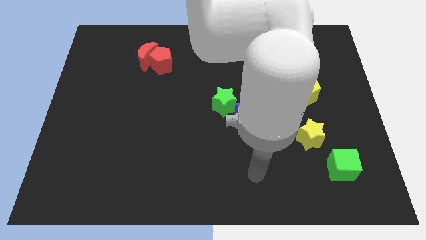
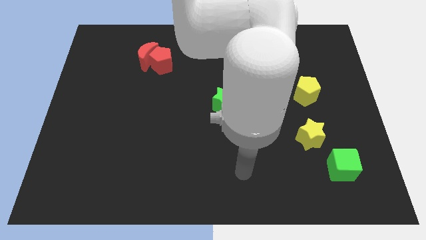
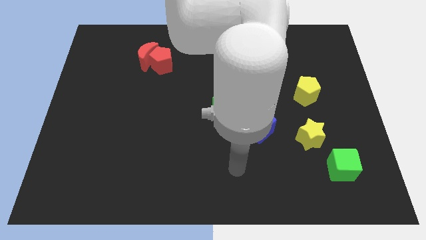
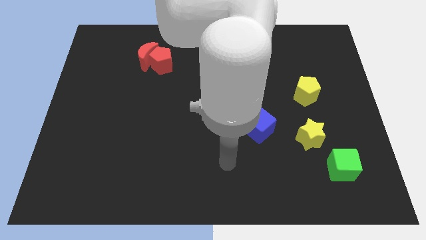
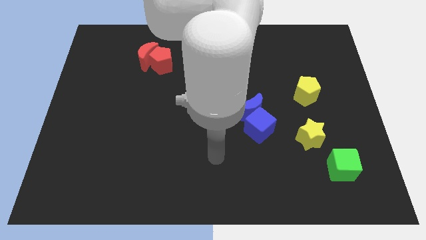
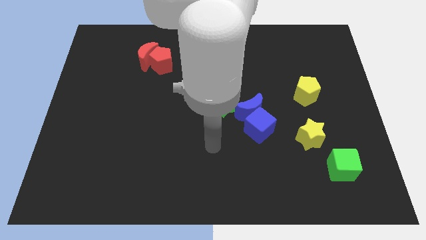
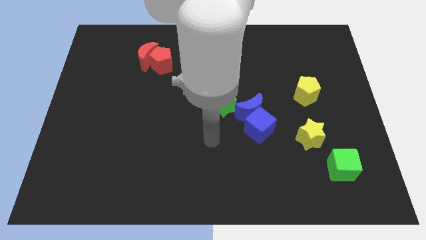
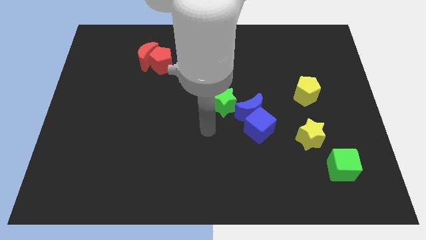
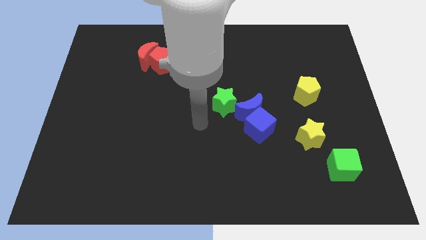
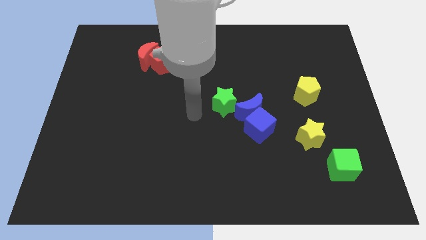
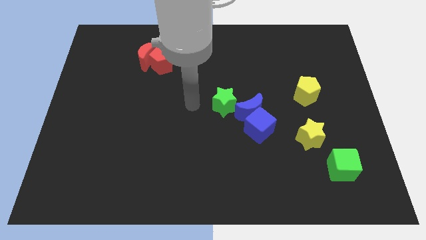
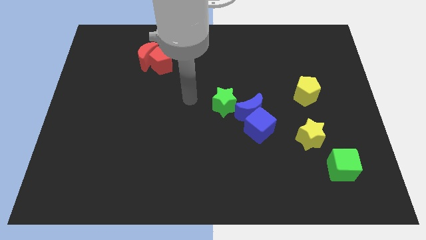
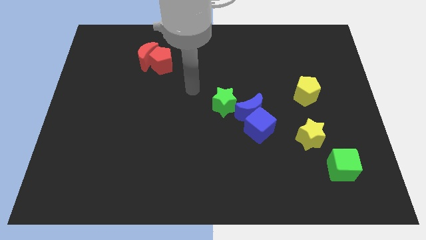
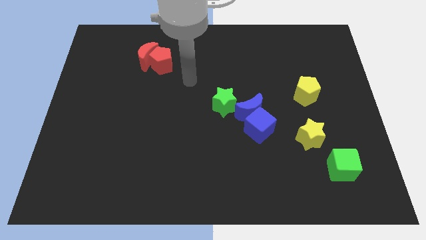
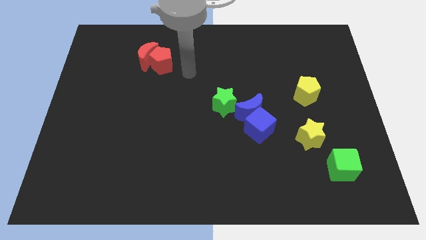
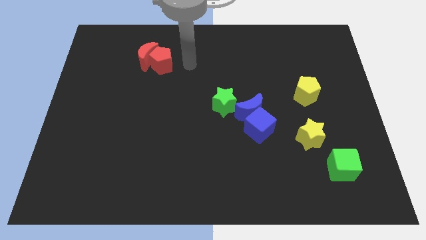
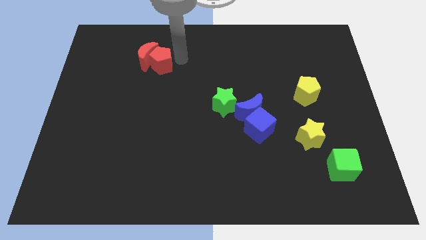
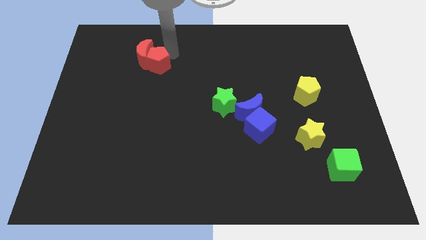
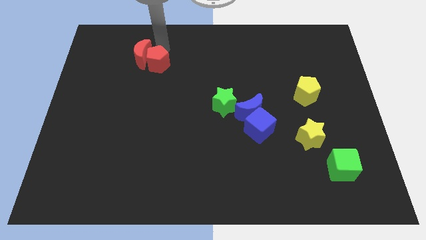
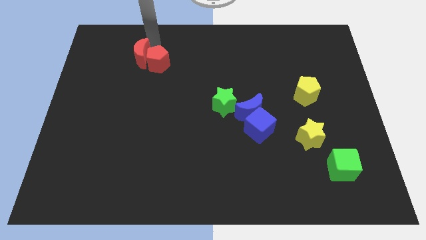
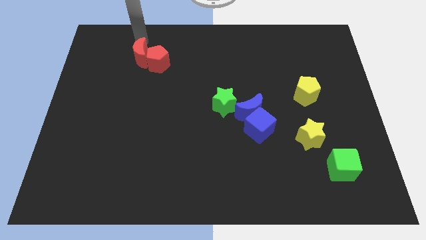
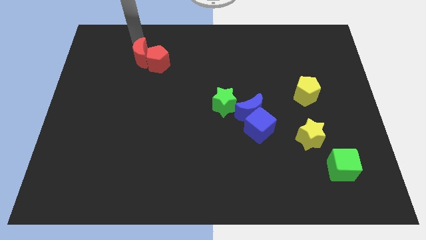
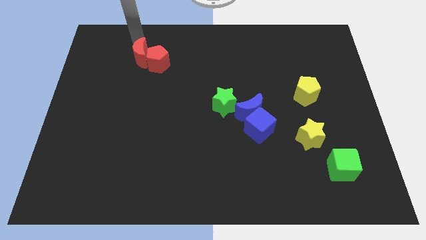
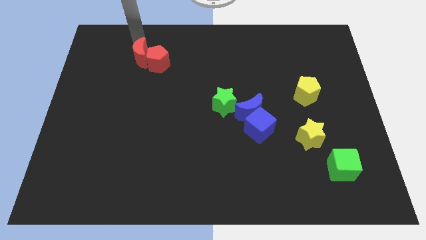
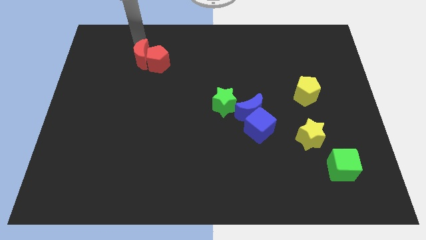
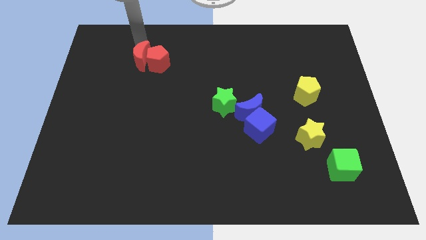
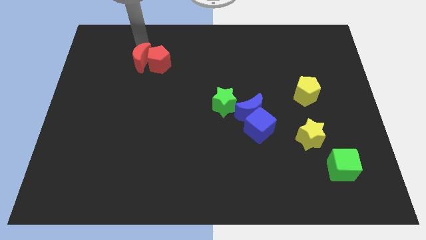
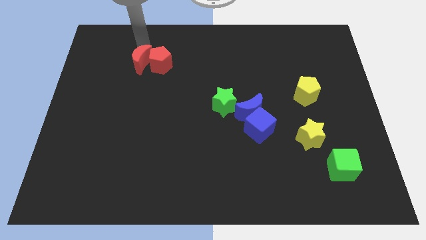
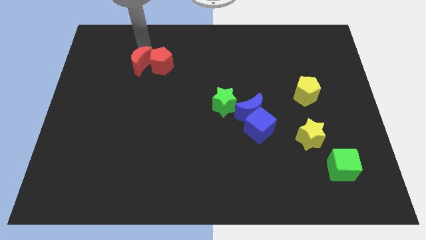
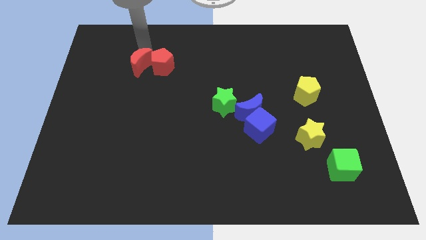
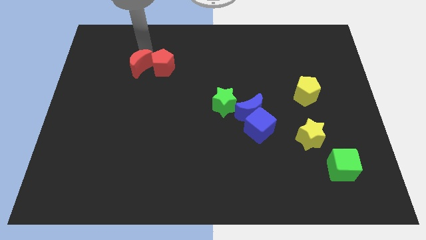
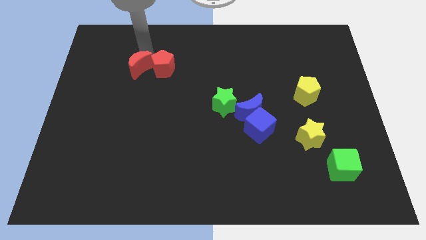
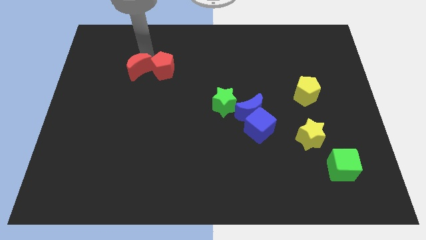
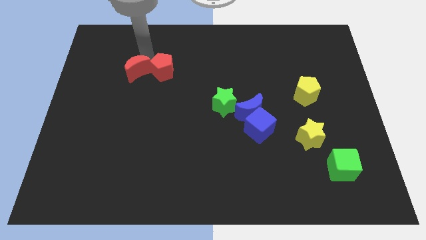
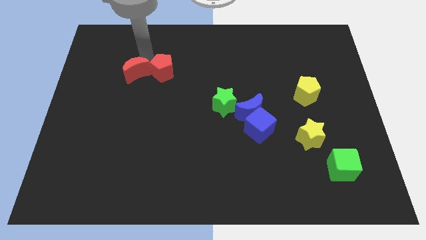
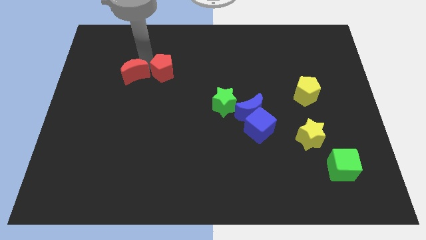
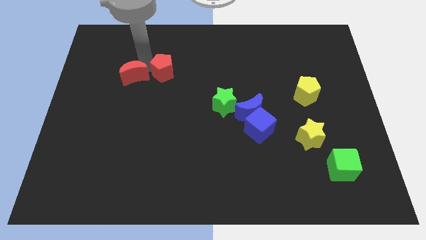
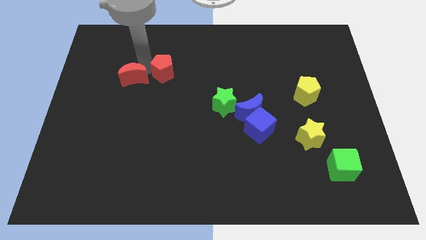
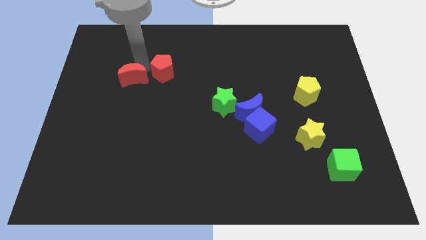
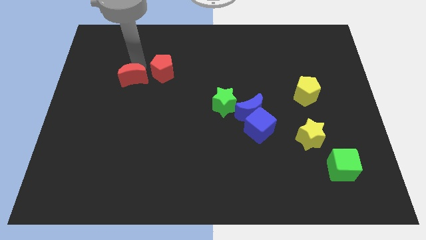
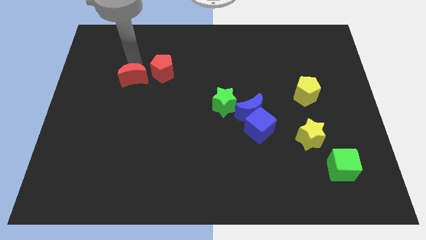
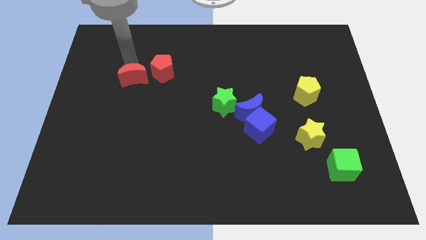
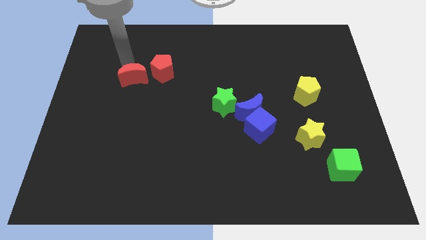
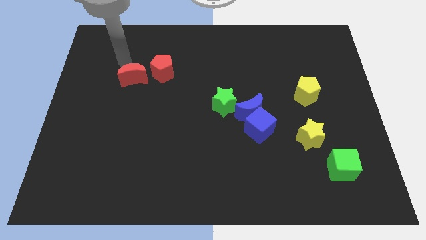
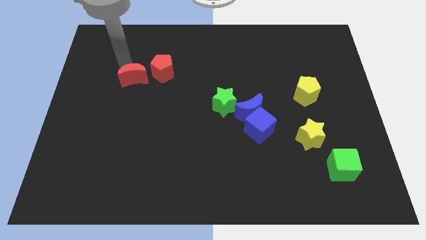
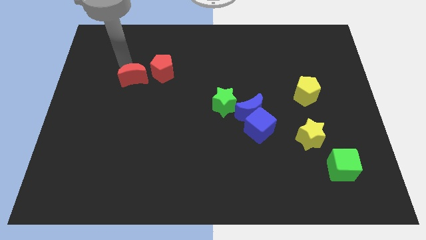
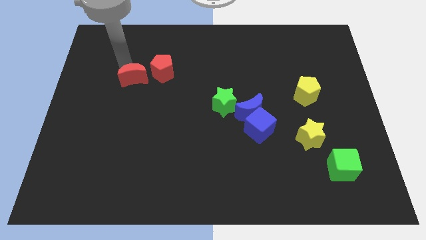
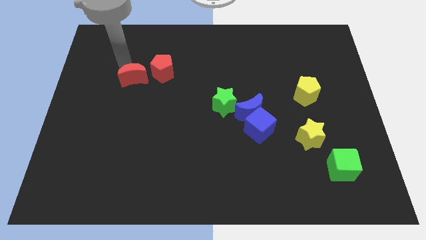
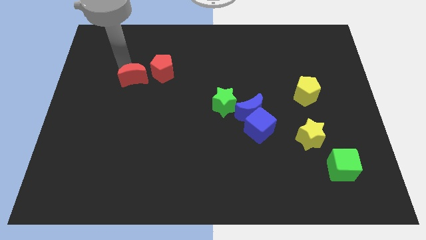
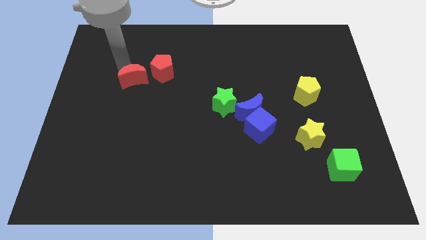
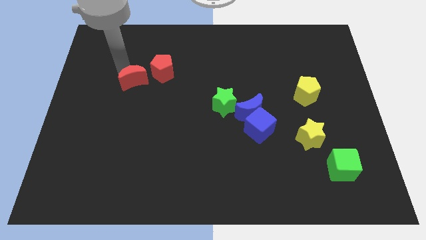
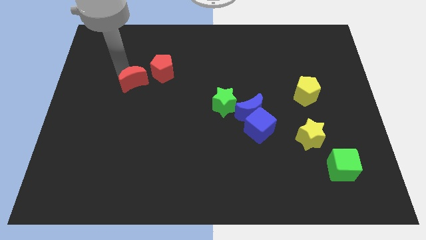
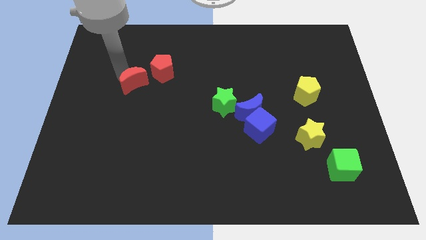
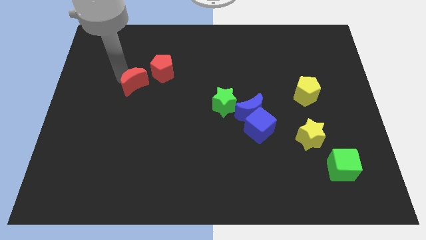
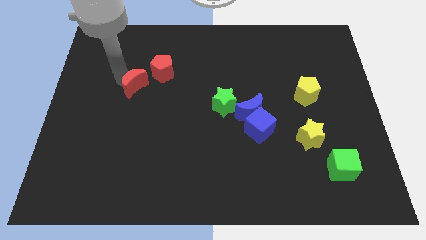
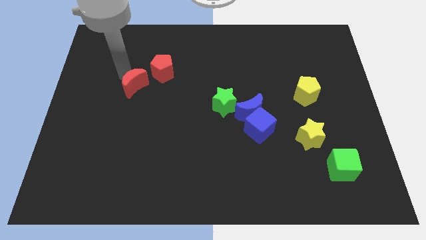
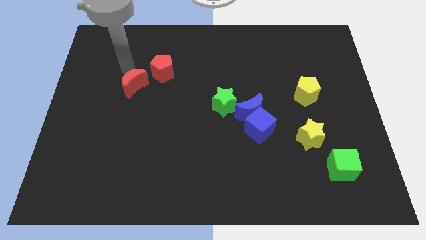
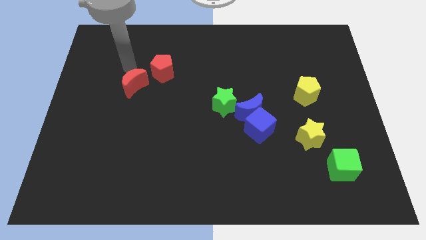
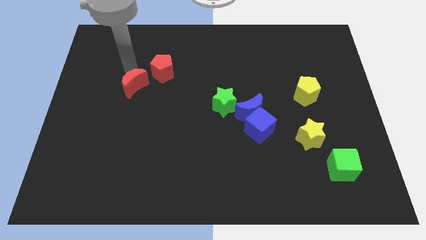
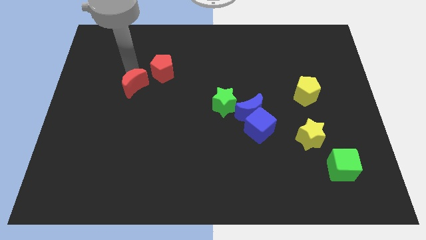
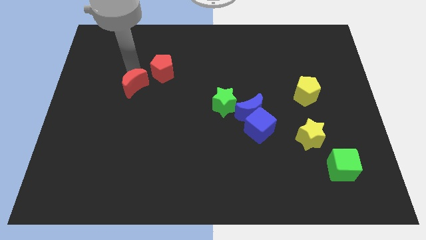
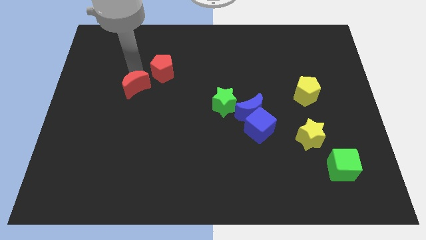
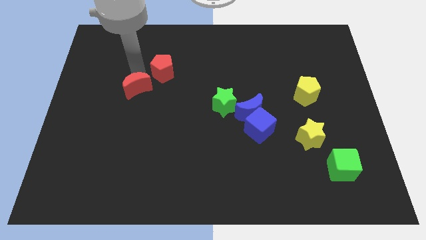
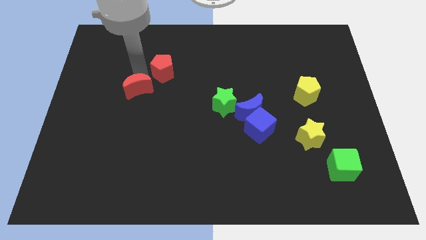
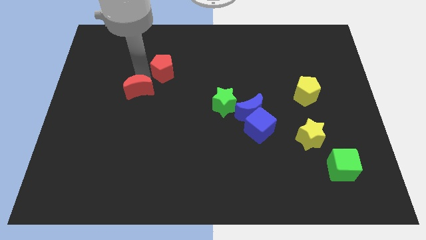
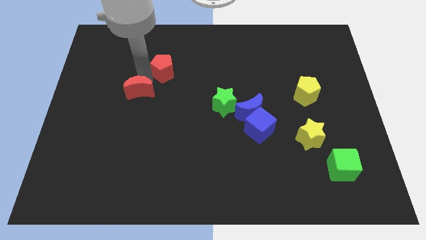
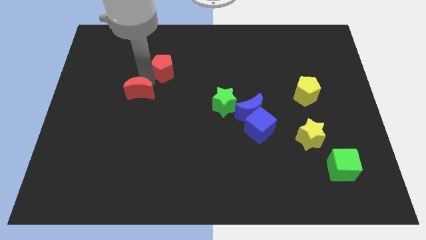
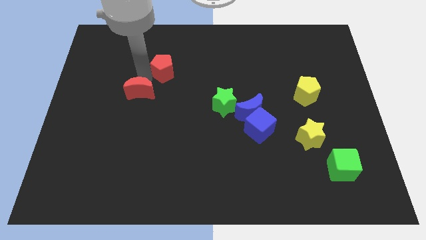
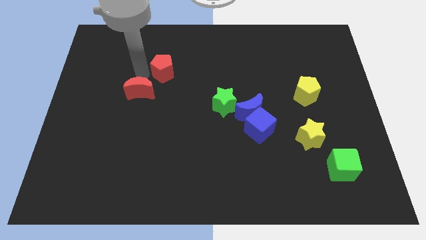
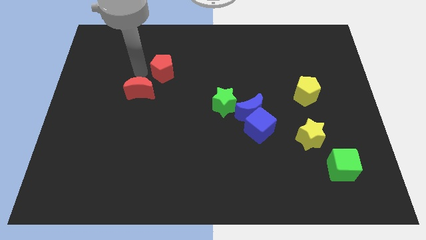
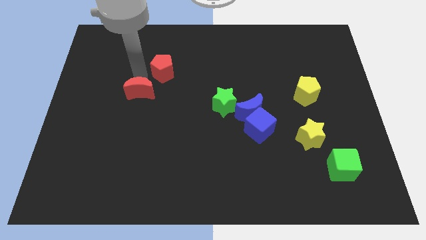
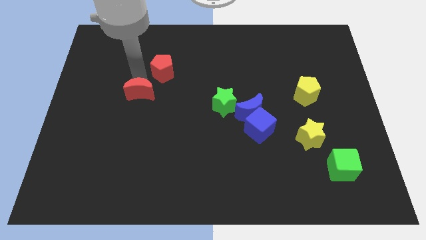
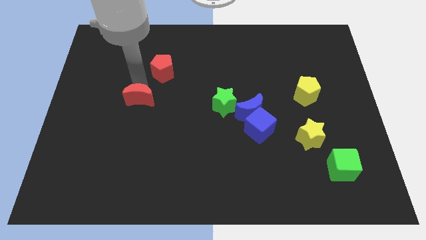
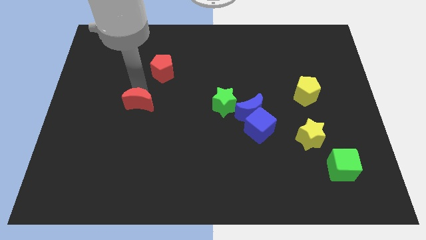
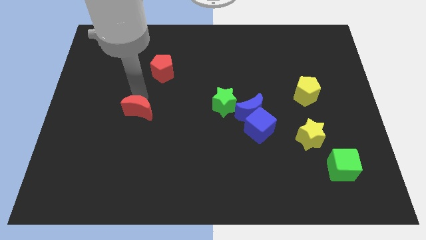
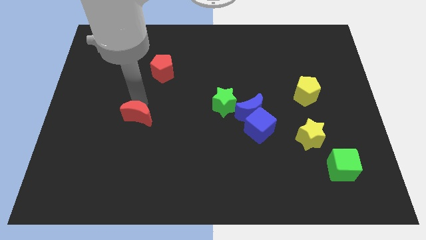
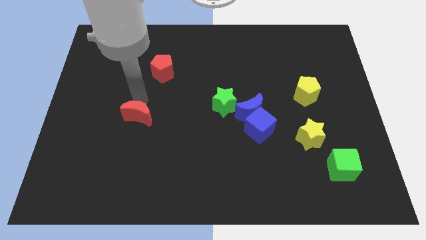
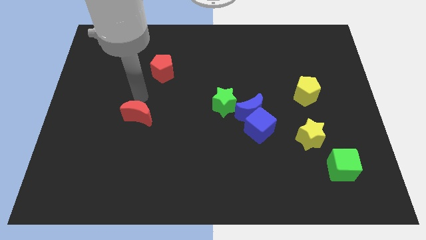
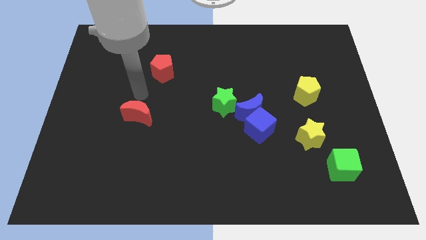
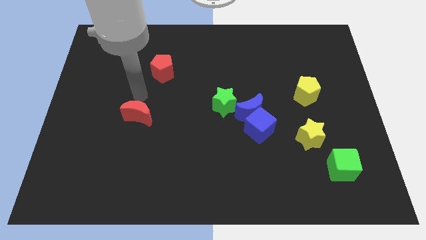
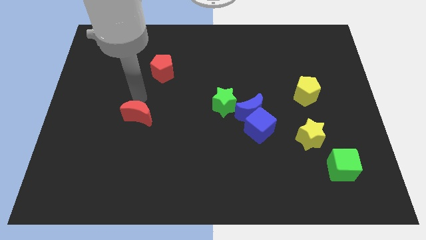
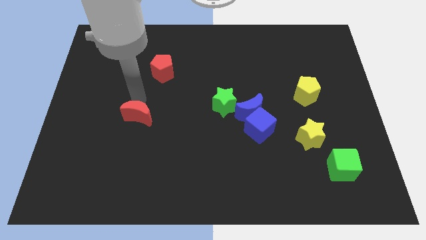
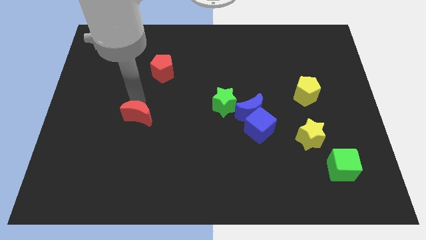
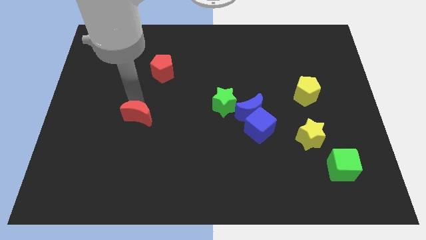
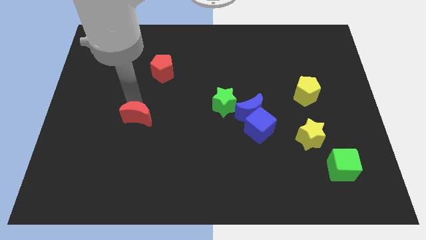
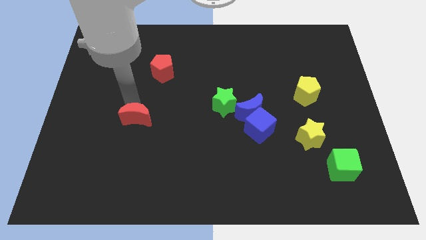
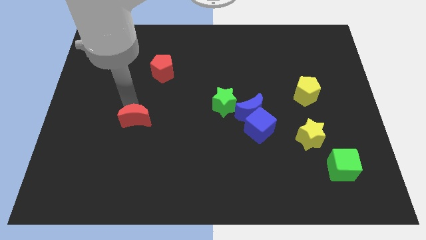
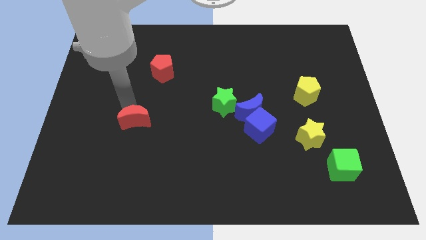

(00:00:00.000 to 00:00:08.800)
slide the red moon down
